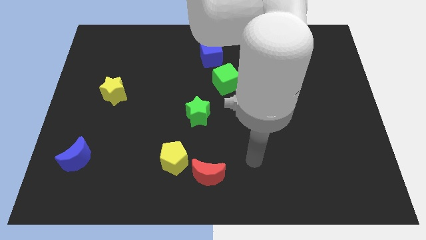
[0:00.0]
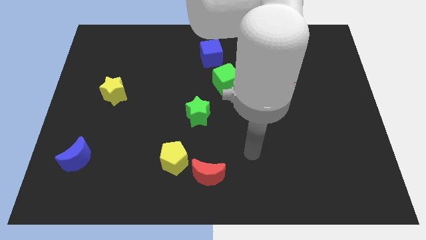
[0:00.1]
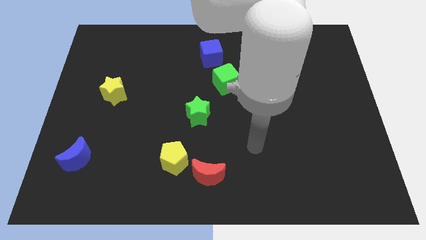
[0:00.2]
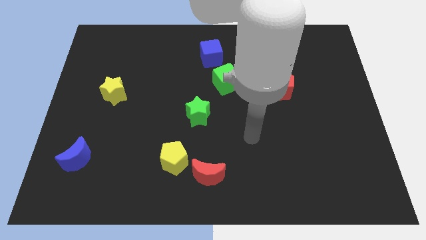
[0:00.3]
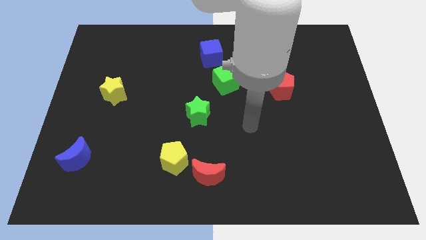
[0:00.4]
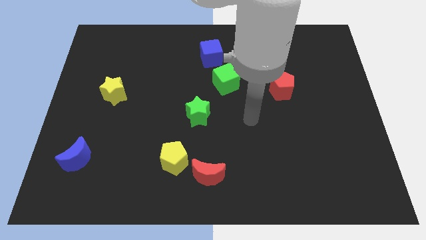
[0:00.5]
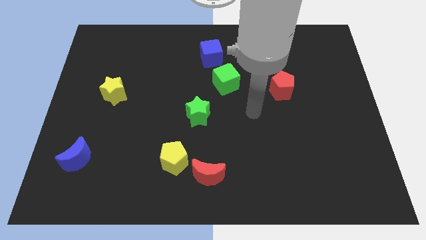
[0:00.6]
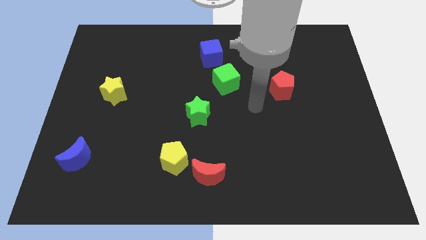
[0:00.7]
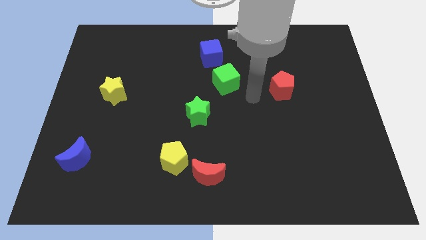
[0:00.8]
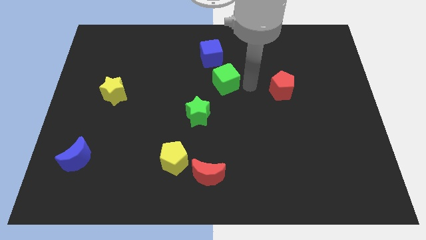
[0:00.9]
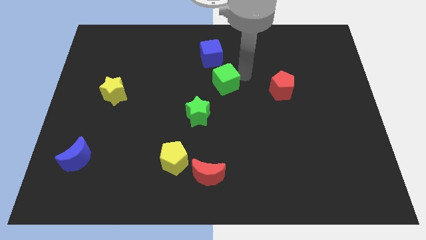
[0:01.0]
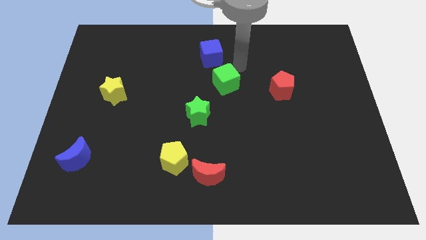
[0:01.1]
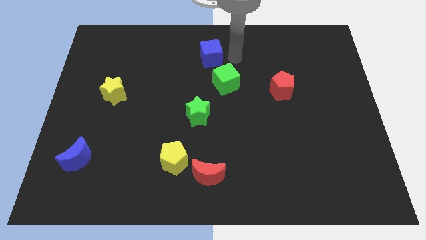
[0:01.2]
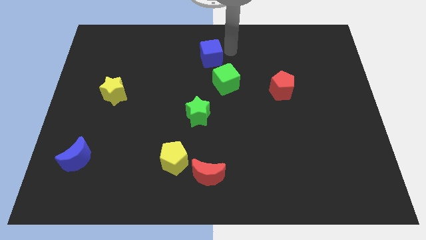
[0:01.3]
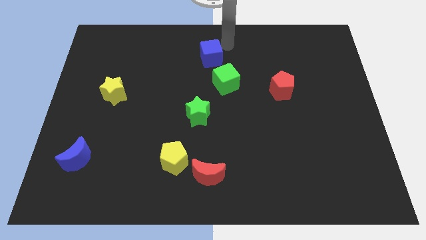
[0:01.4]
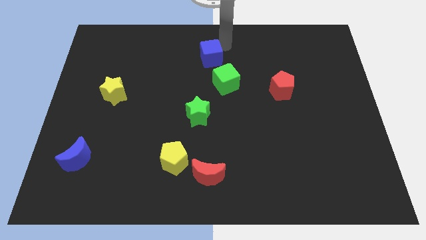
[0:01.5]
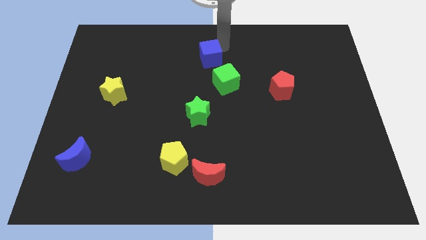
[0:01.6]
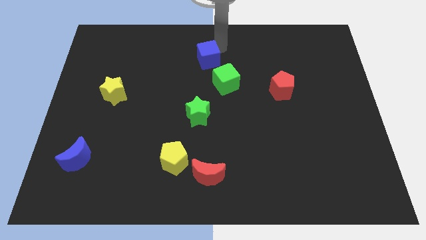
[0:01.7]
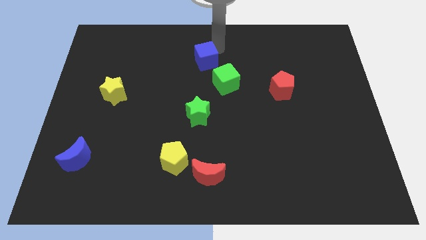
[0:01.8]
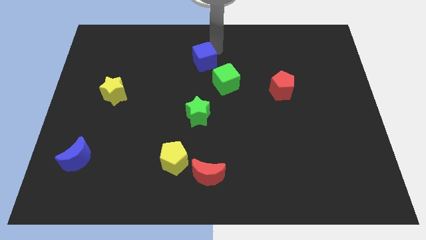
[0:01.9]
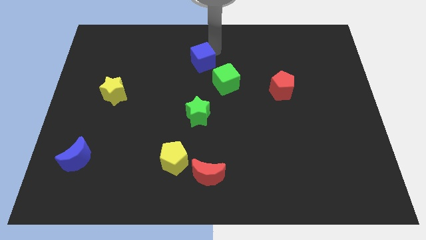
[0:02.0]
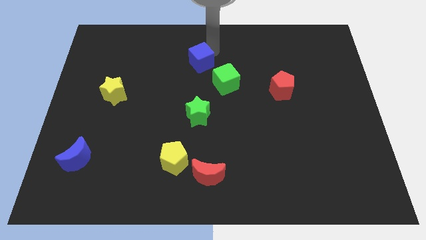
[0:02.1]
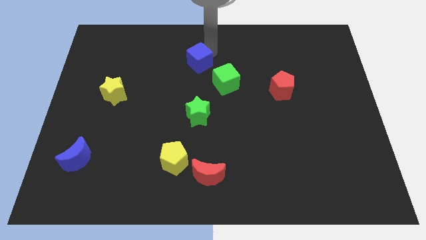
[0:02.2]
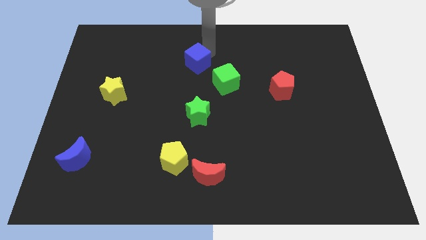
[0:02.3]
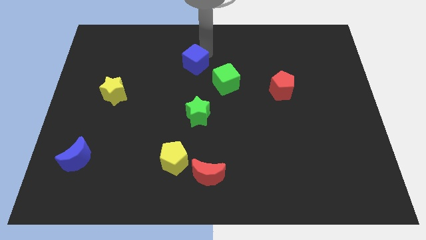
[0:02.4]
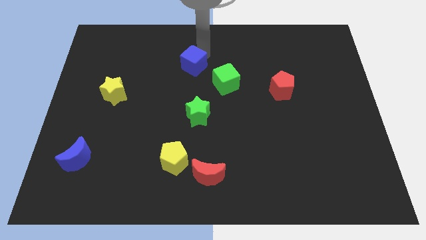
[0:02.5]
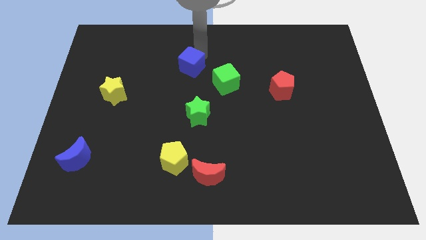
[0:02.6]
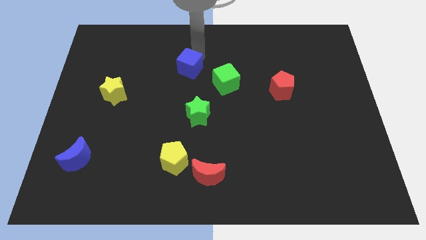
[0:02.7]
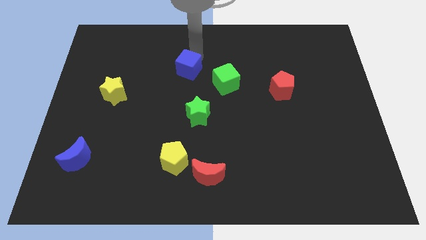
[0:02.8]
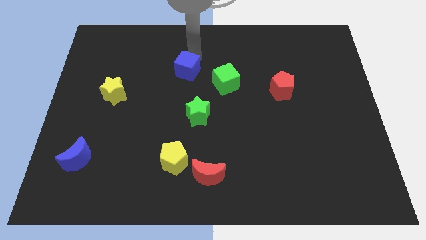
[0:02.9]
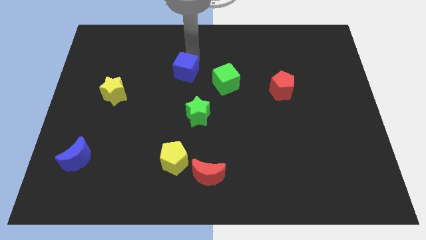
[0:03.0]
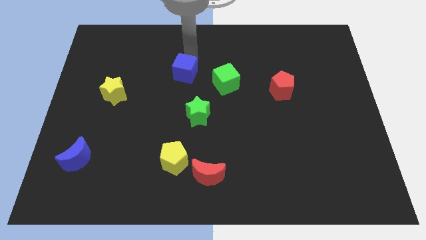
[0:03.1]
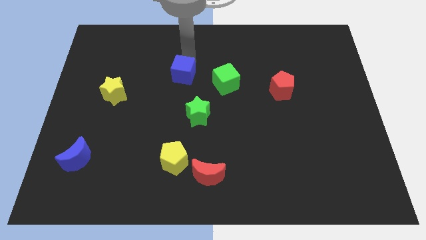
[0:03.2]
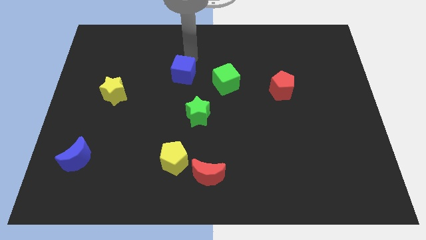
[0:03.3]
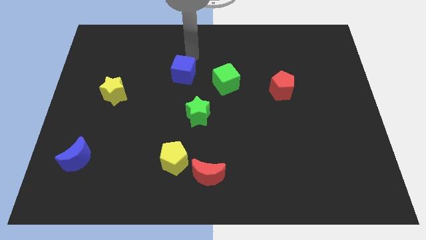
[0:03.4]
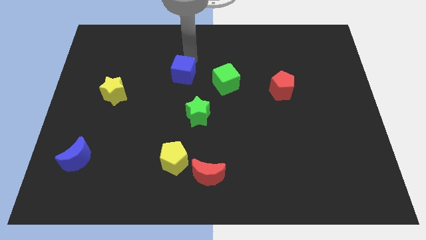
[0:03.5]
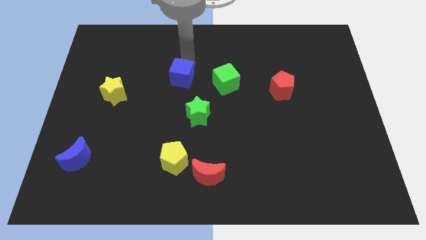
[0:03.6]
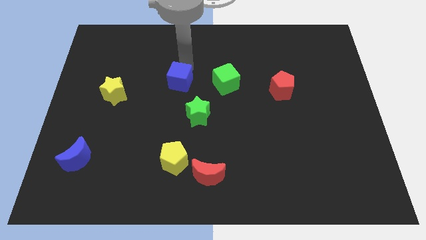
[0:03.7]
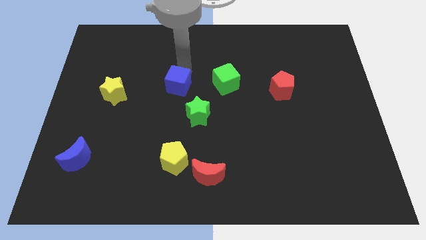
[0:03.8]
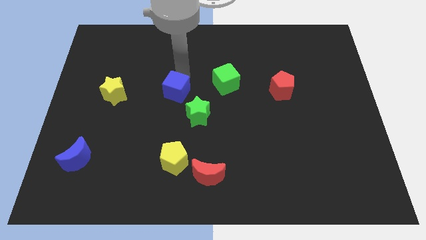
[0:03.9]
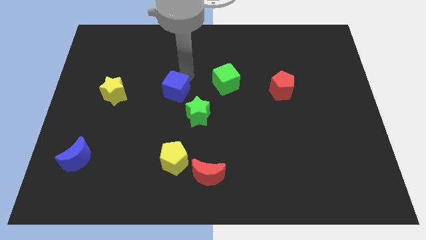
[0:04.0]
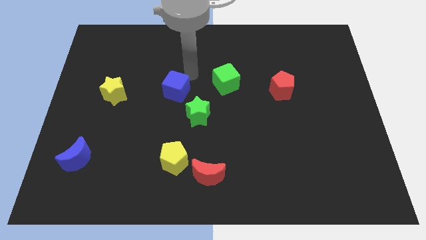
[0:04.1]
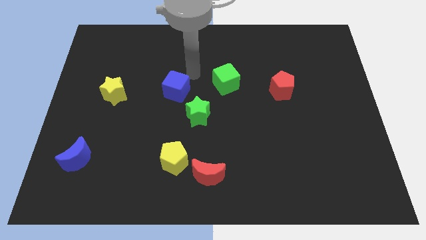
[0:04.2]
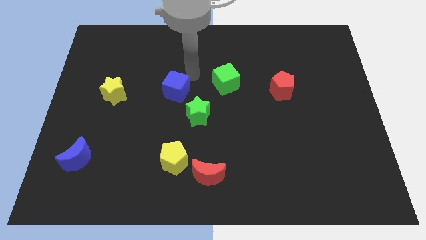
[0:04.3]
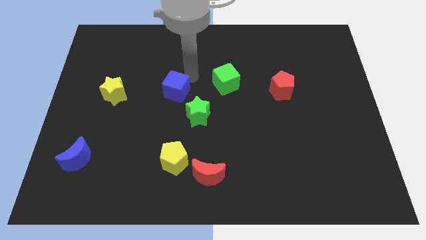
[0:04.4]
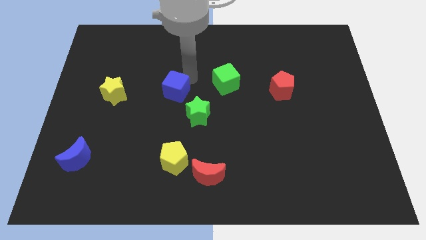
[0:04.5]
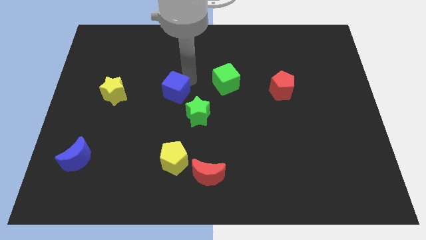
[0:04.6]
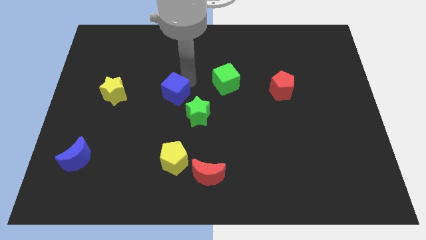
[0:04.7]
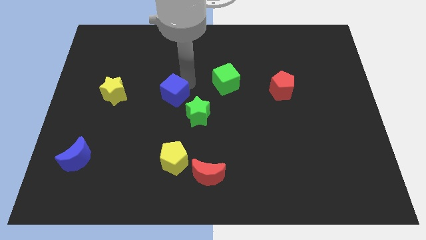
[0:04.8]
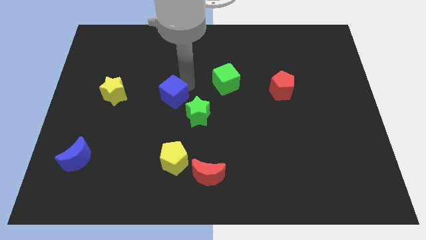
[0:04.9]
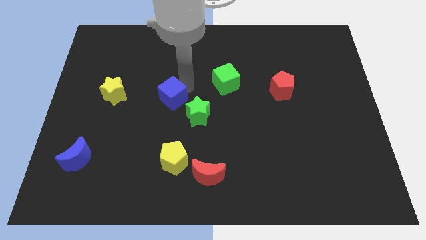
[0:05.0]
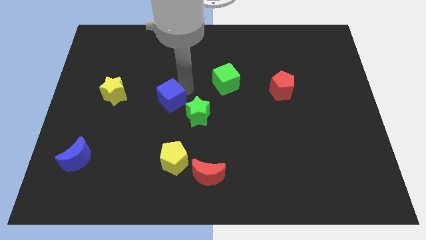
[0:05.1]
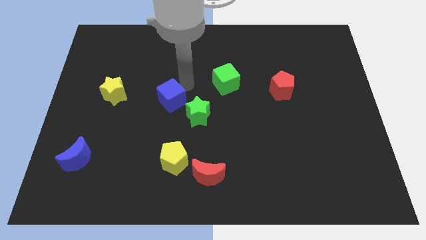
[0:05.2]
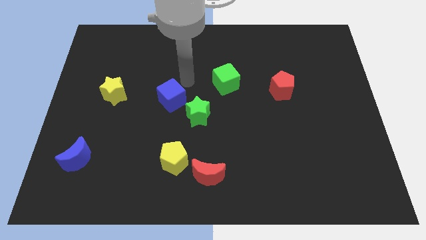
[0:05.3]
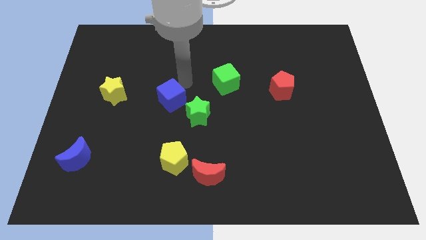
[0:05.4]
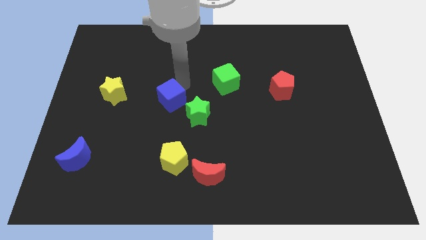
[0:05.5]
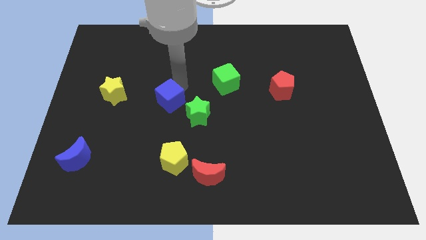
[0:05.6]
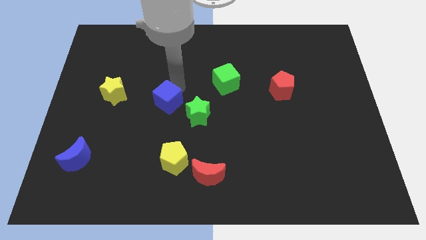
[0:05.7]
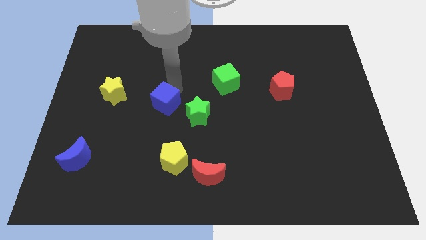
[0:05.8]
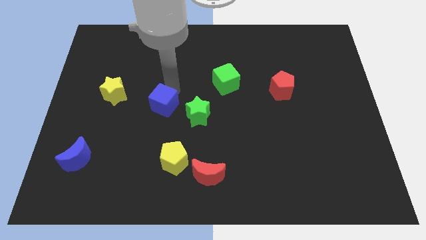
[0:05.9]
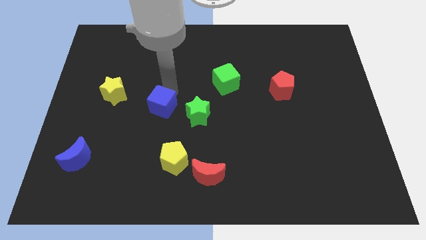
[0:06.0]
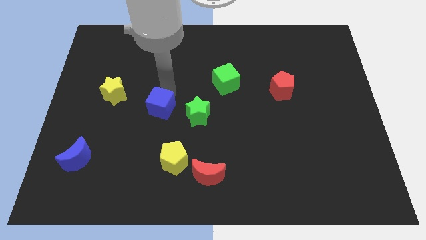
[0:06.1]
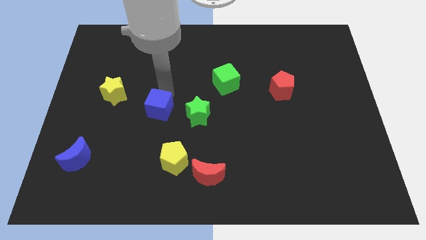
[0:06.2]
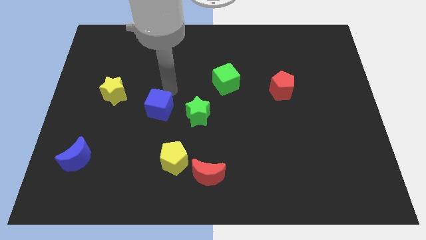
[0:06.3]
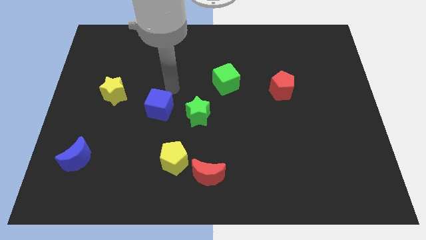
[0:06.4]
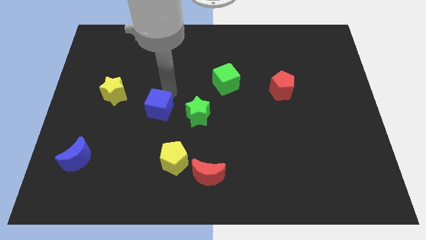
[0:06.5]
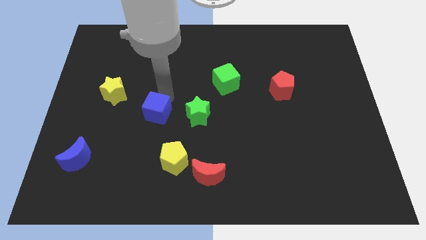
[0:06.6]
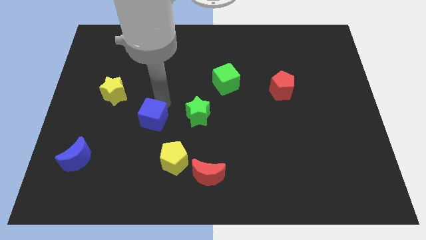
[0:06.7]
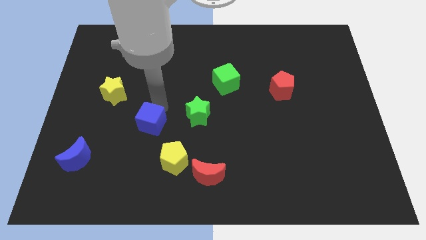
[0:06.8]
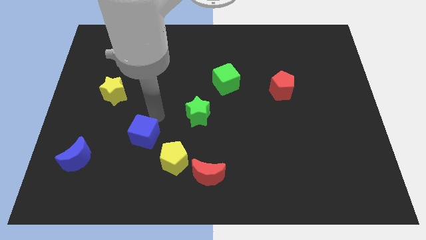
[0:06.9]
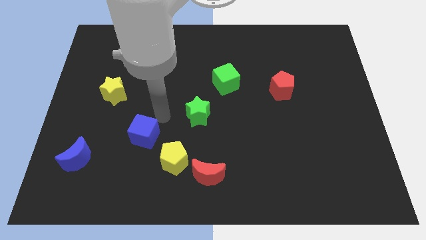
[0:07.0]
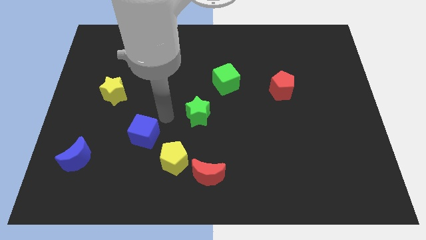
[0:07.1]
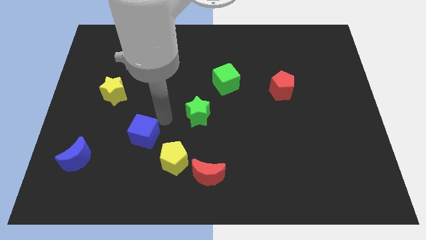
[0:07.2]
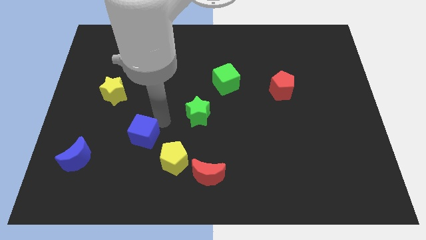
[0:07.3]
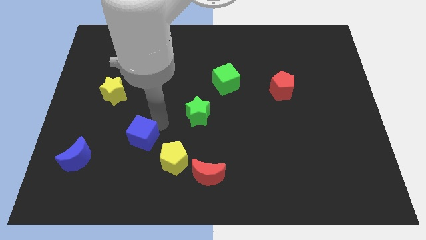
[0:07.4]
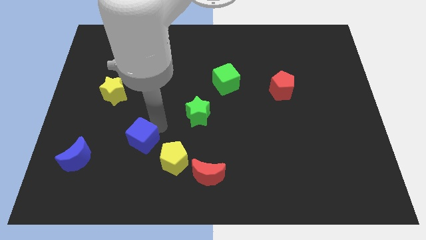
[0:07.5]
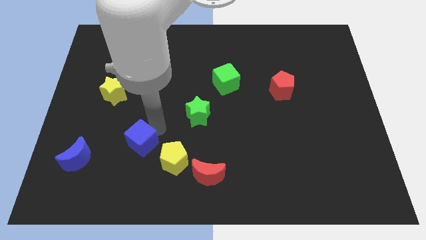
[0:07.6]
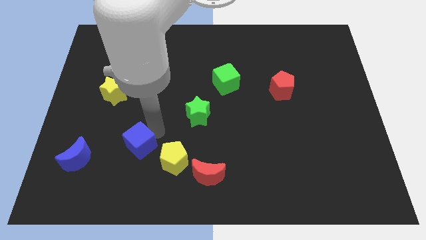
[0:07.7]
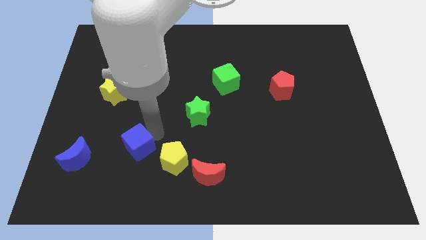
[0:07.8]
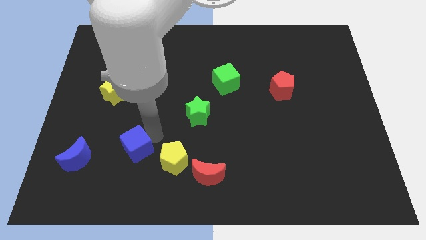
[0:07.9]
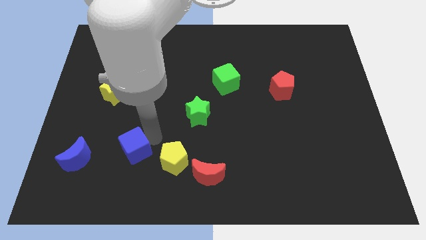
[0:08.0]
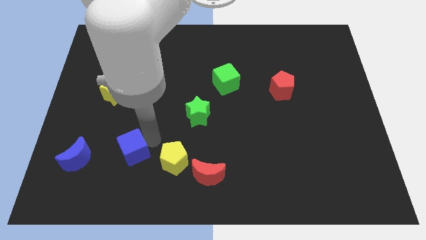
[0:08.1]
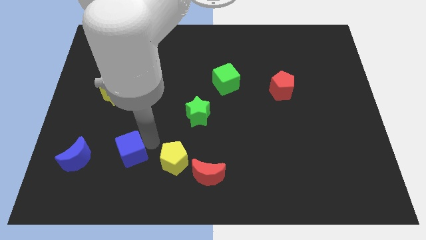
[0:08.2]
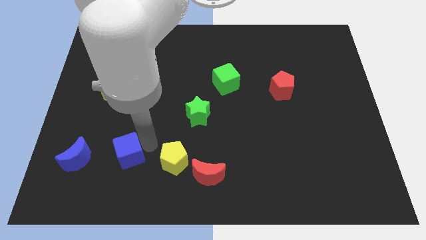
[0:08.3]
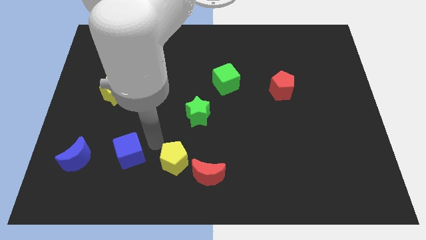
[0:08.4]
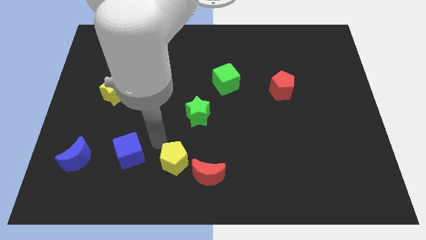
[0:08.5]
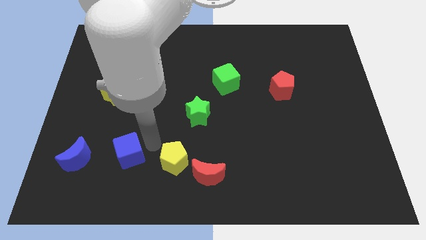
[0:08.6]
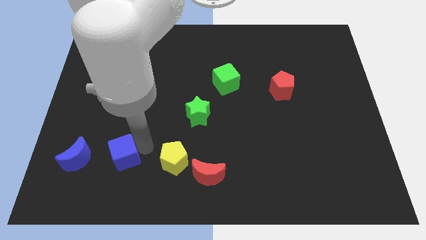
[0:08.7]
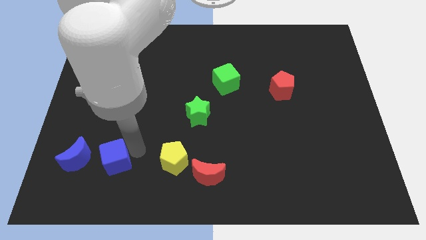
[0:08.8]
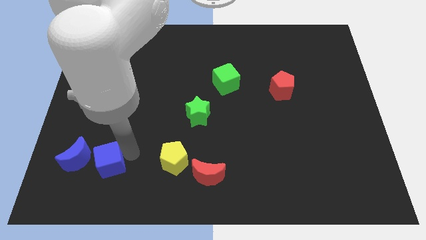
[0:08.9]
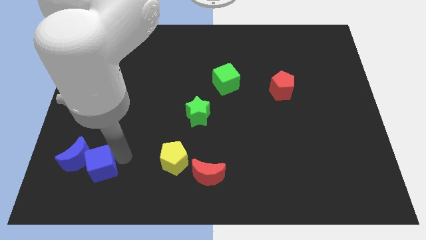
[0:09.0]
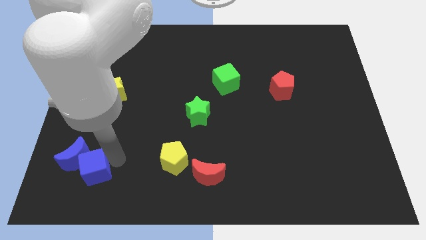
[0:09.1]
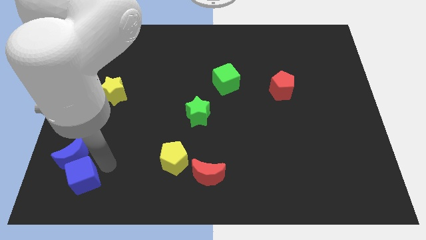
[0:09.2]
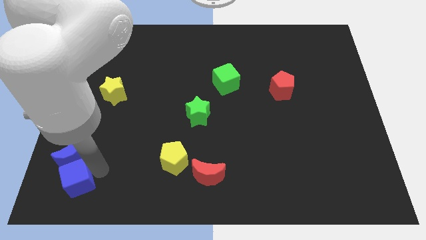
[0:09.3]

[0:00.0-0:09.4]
push the blue cube to the bottom left
